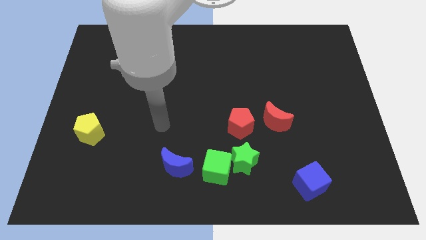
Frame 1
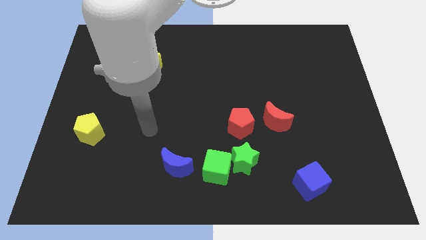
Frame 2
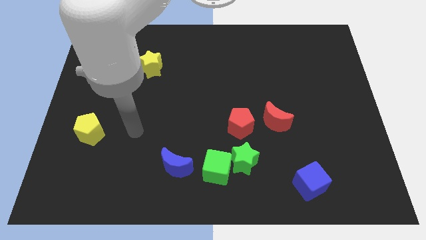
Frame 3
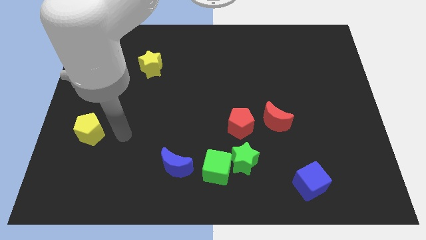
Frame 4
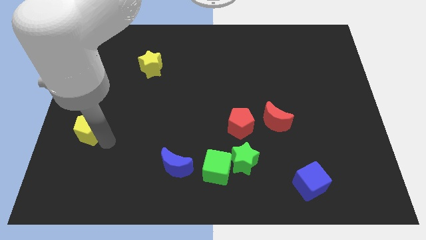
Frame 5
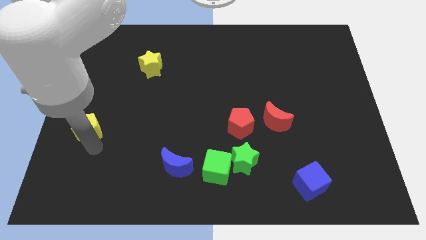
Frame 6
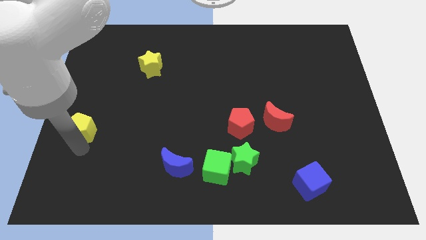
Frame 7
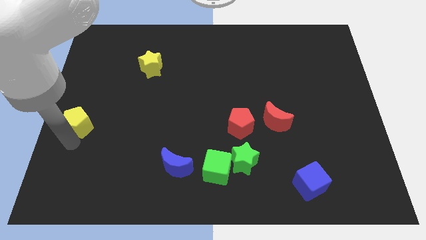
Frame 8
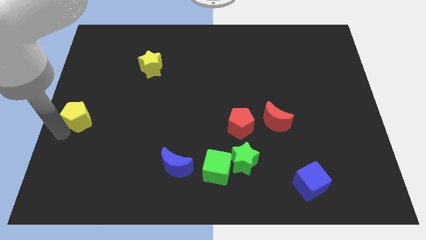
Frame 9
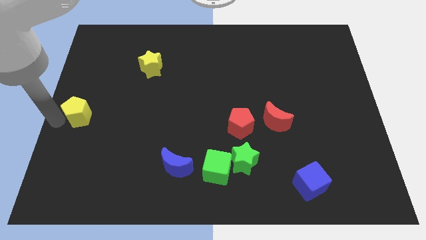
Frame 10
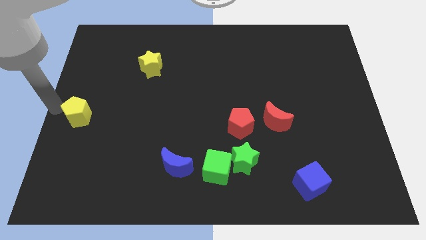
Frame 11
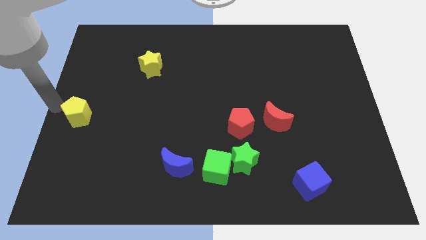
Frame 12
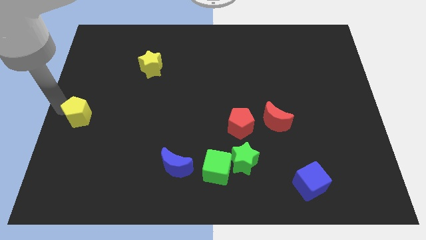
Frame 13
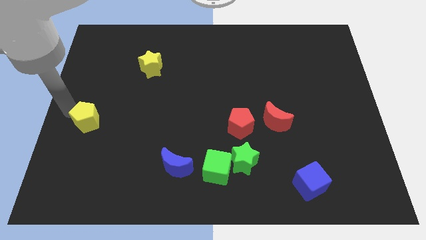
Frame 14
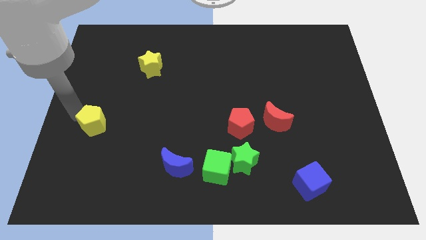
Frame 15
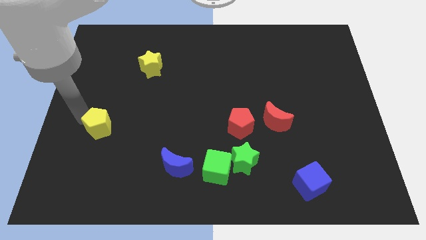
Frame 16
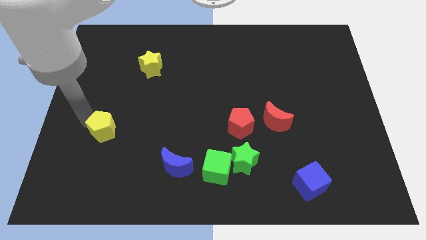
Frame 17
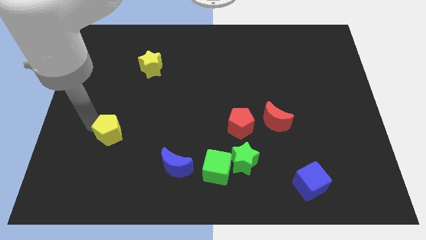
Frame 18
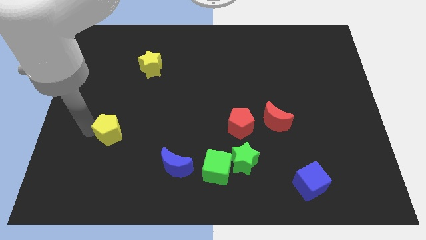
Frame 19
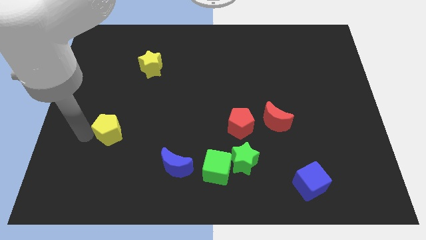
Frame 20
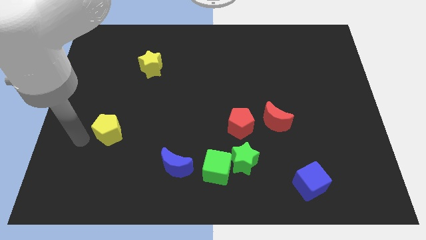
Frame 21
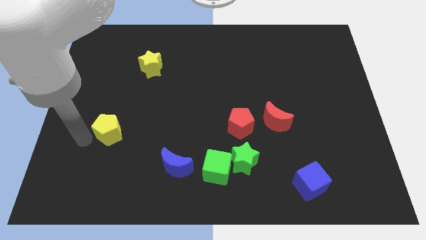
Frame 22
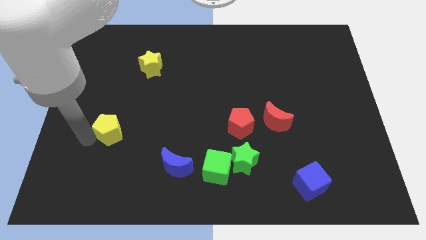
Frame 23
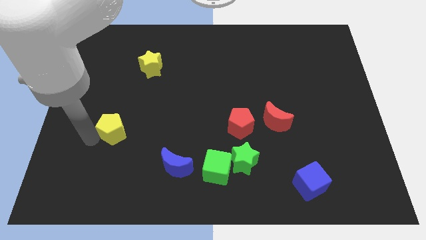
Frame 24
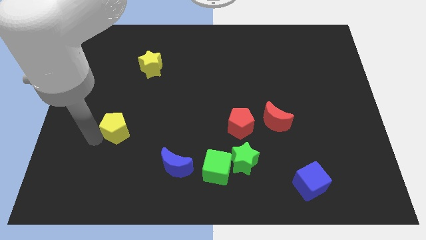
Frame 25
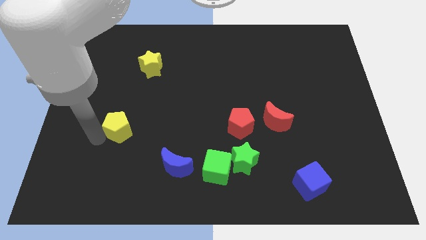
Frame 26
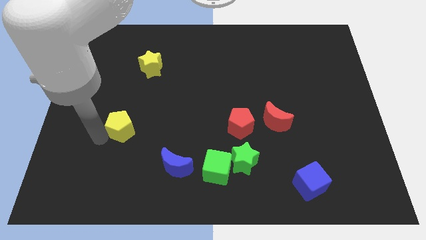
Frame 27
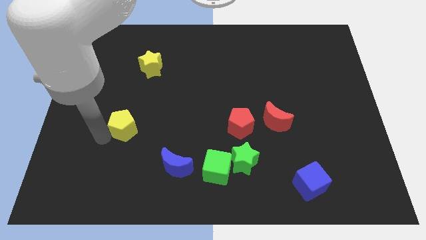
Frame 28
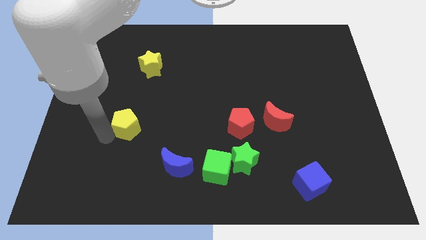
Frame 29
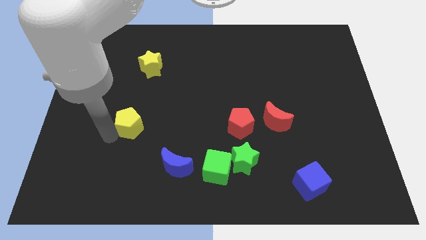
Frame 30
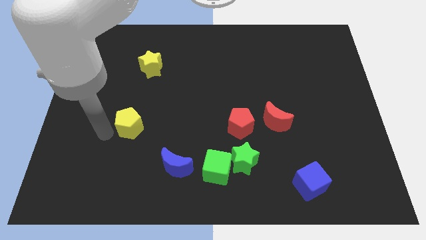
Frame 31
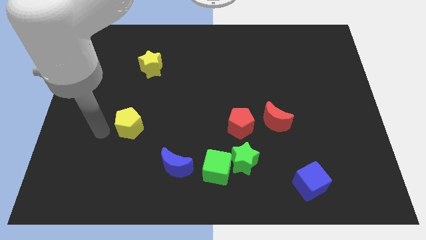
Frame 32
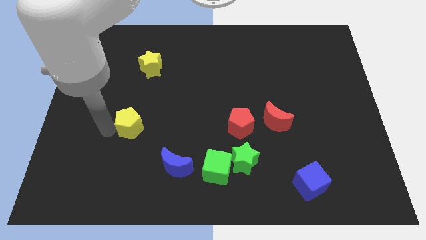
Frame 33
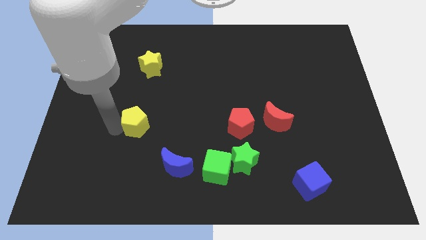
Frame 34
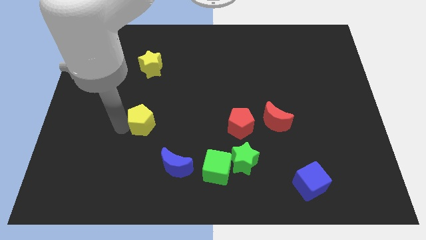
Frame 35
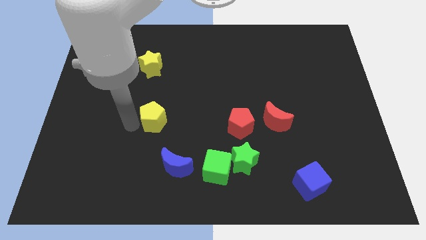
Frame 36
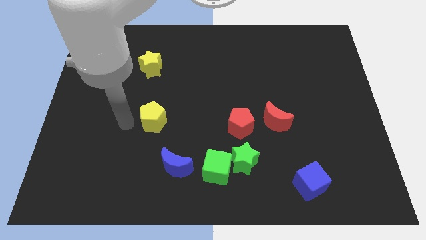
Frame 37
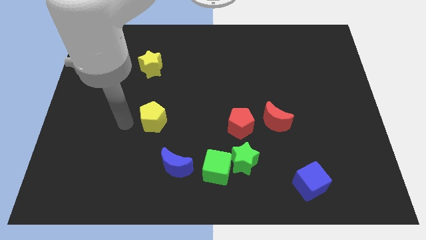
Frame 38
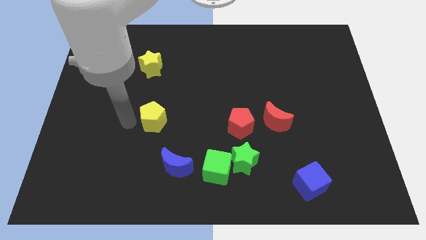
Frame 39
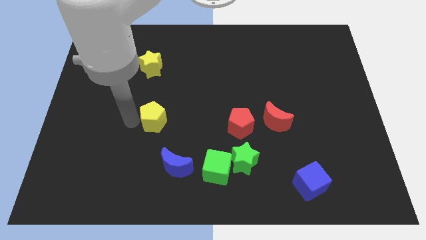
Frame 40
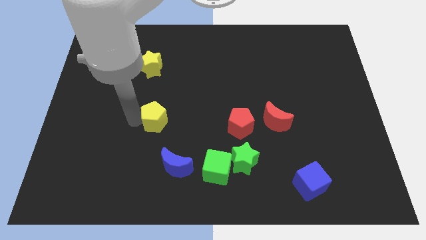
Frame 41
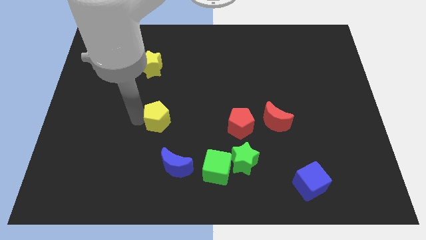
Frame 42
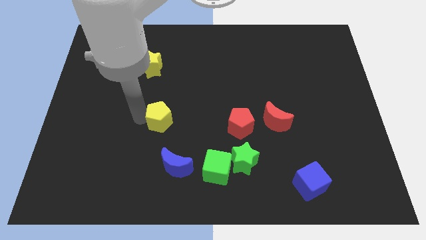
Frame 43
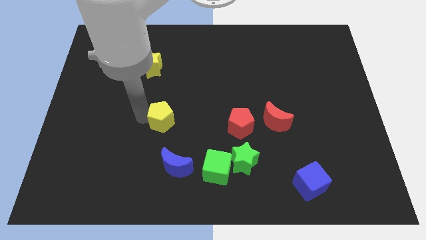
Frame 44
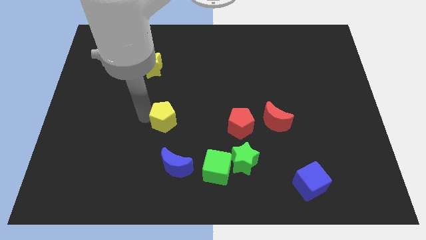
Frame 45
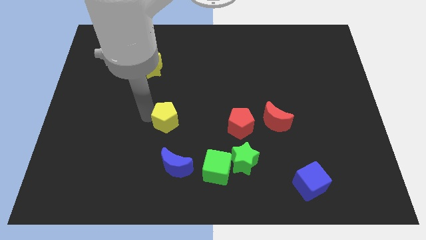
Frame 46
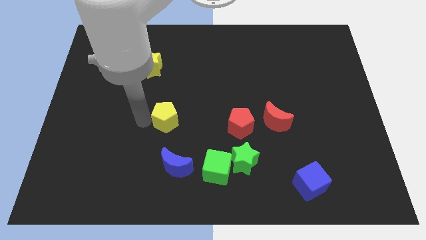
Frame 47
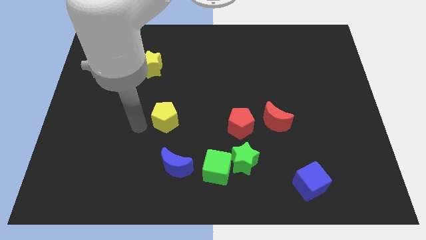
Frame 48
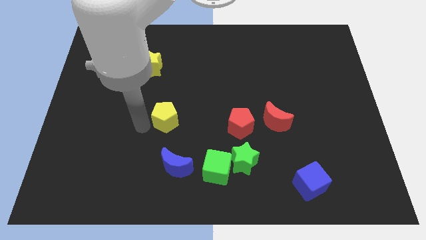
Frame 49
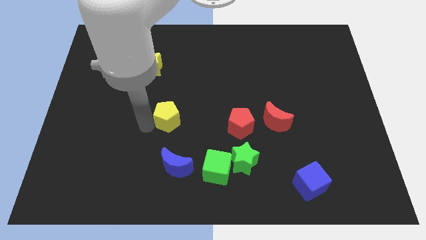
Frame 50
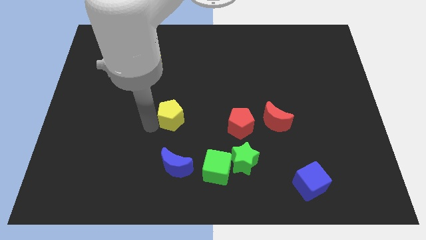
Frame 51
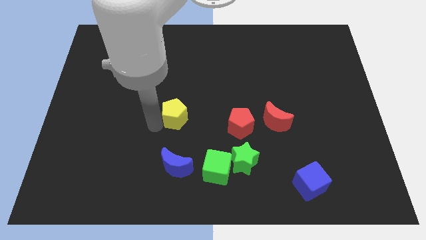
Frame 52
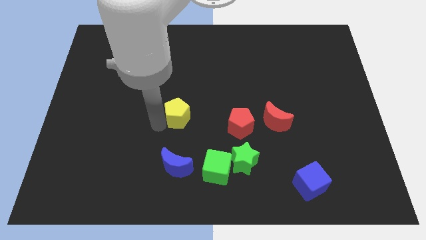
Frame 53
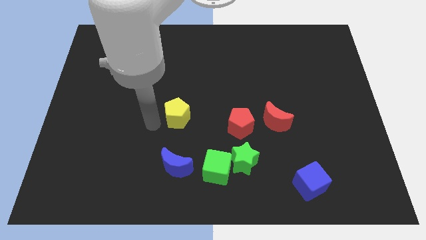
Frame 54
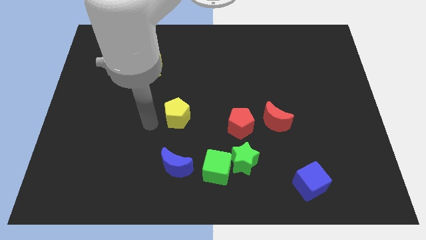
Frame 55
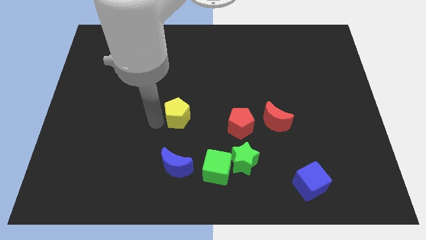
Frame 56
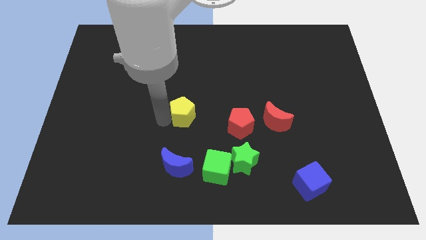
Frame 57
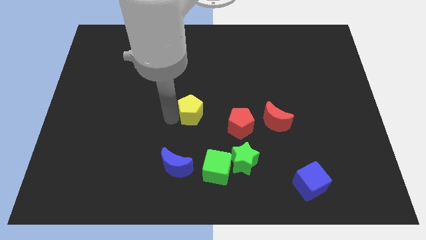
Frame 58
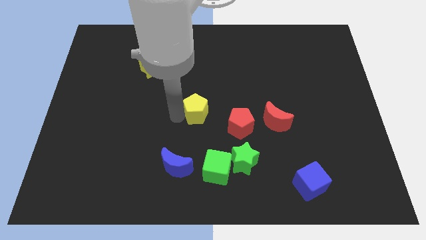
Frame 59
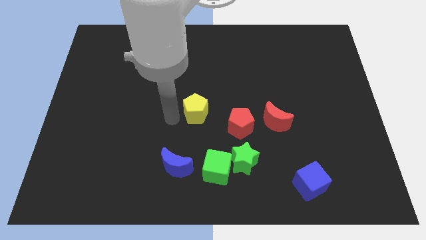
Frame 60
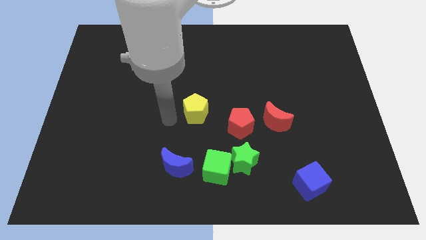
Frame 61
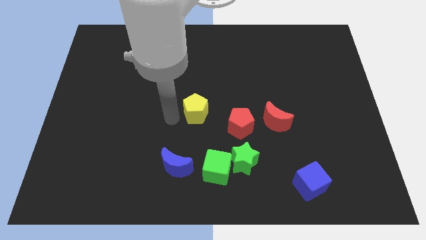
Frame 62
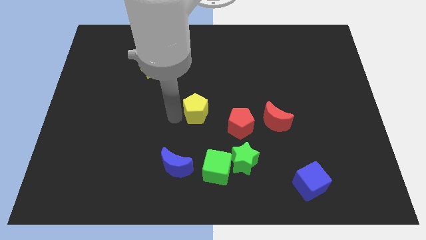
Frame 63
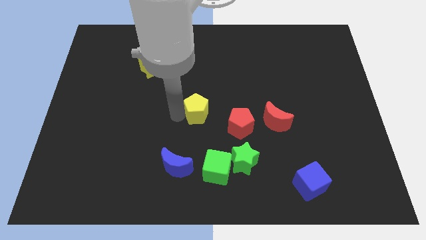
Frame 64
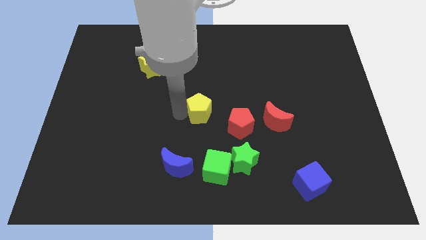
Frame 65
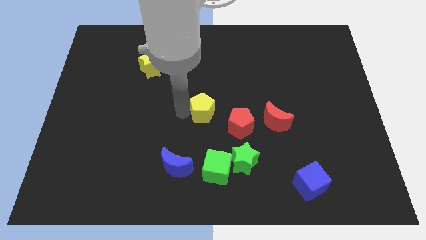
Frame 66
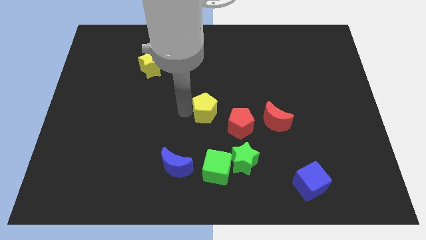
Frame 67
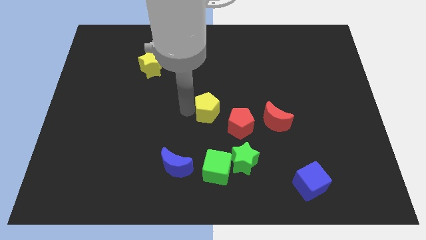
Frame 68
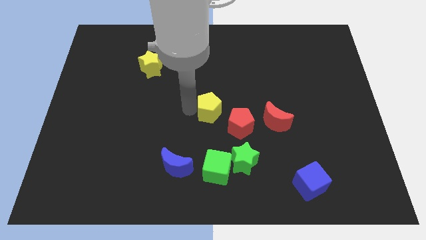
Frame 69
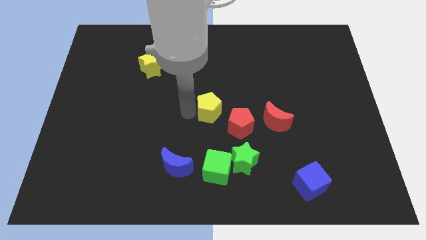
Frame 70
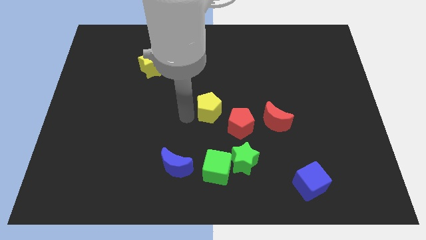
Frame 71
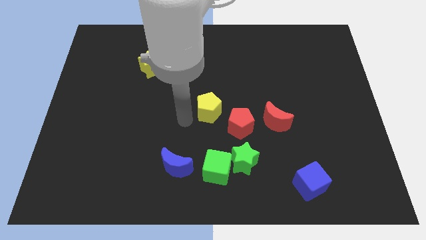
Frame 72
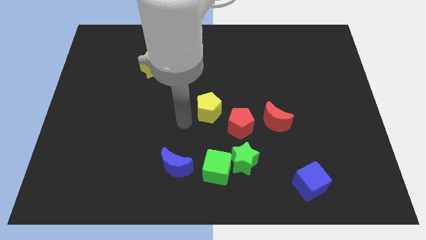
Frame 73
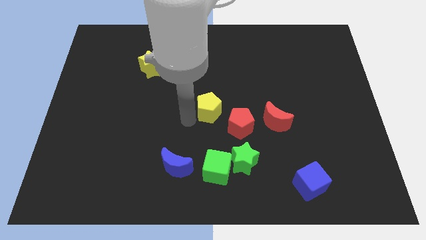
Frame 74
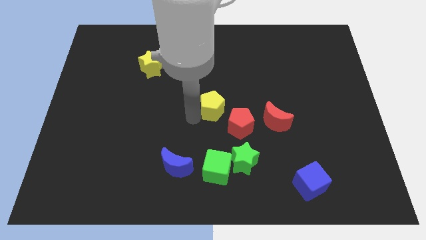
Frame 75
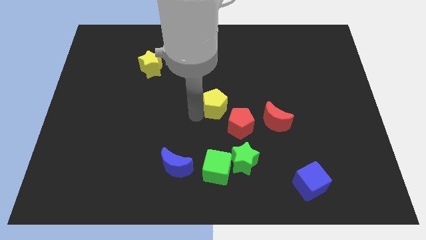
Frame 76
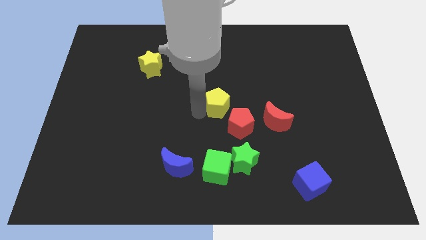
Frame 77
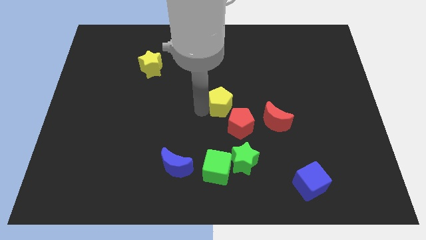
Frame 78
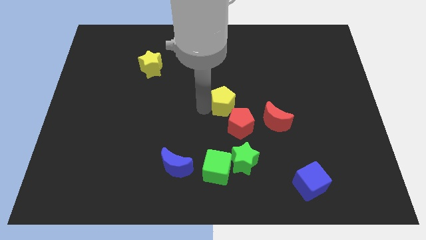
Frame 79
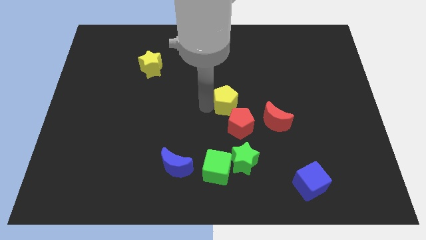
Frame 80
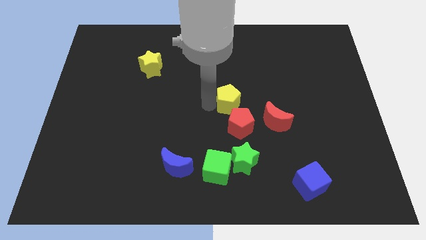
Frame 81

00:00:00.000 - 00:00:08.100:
put the yellow pentagon to the top left side of the red moon
